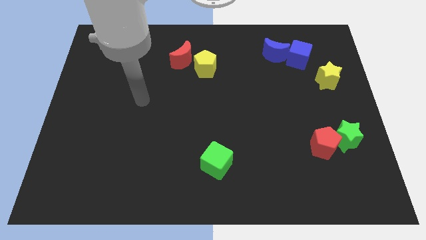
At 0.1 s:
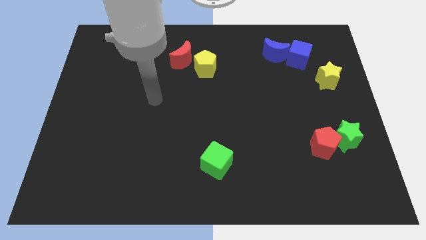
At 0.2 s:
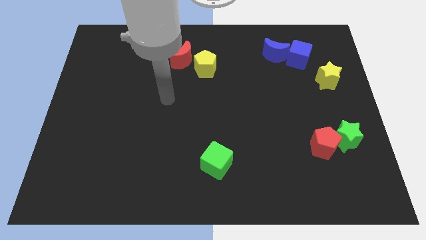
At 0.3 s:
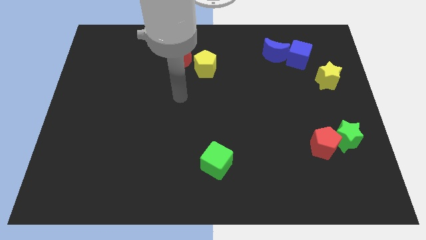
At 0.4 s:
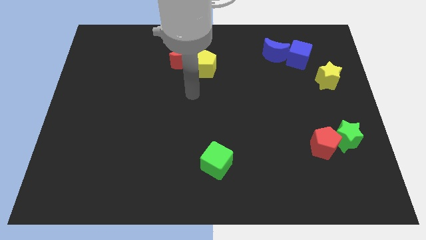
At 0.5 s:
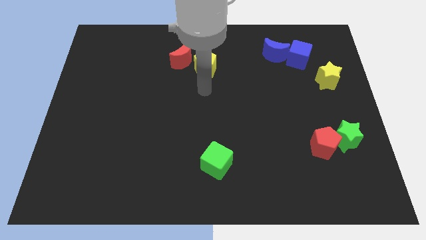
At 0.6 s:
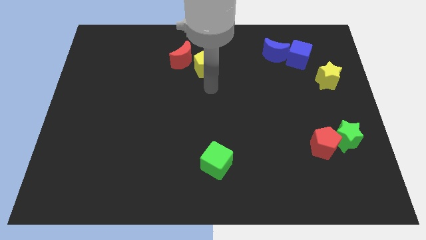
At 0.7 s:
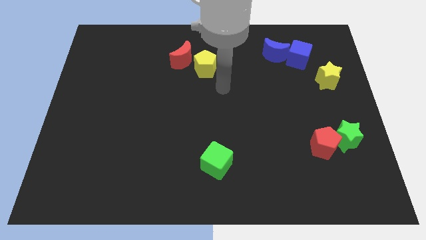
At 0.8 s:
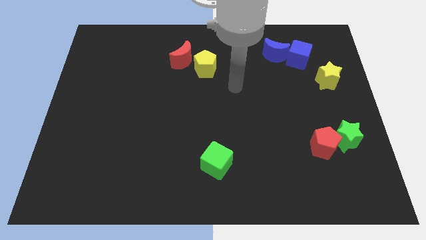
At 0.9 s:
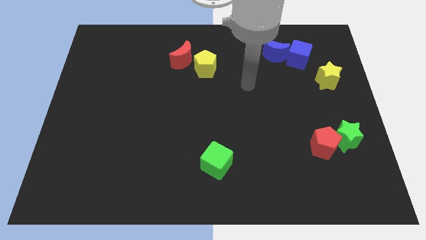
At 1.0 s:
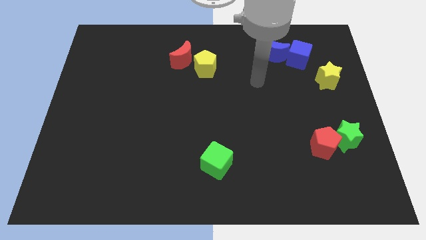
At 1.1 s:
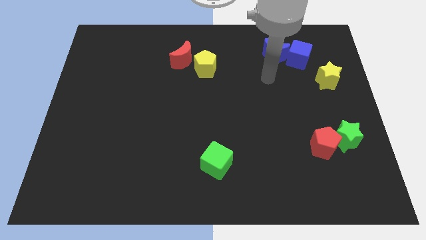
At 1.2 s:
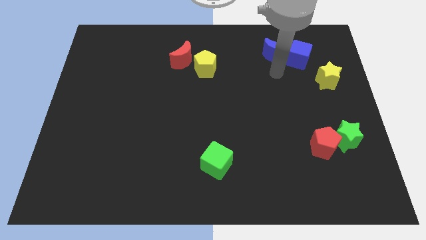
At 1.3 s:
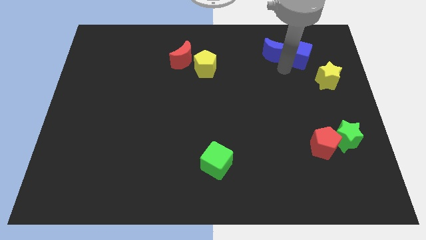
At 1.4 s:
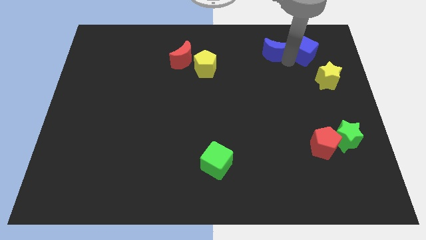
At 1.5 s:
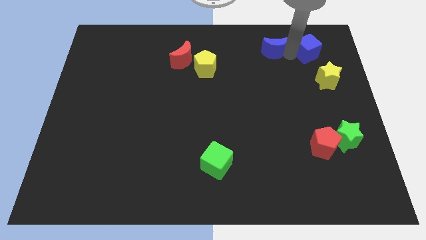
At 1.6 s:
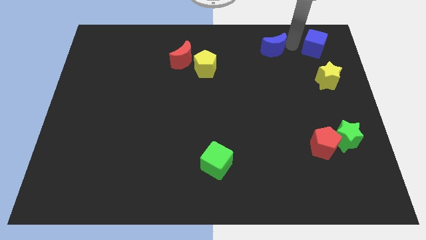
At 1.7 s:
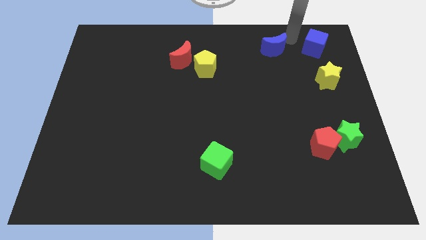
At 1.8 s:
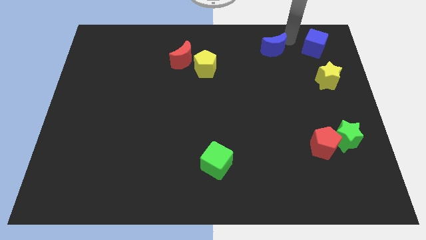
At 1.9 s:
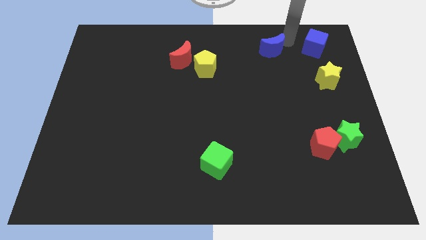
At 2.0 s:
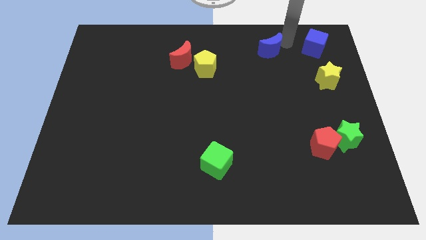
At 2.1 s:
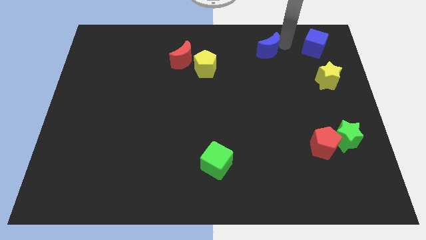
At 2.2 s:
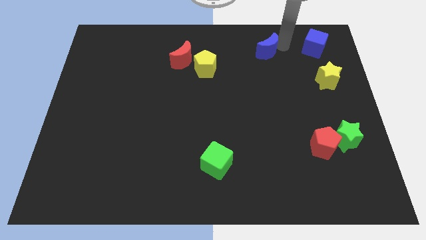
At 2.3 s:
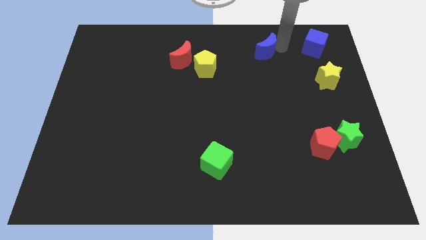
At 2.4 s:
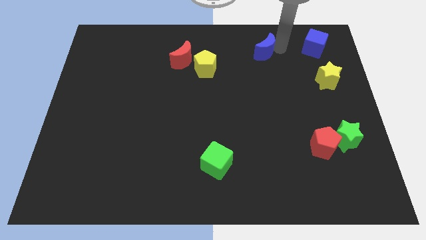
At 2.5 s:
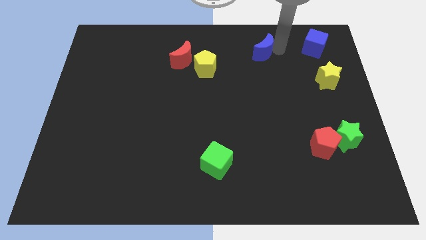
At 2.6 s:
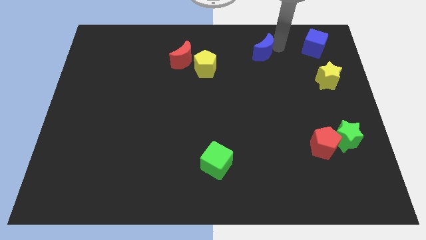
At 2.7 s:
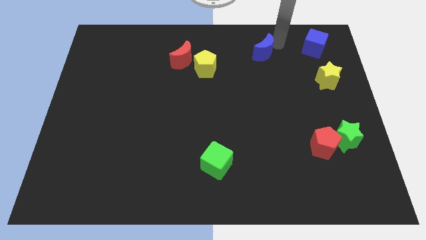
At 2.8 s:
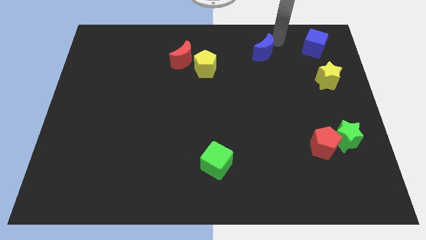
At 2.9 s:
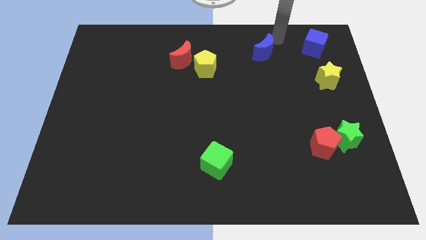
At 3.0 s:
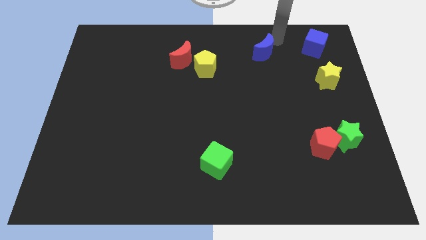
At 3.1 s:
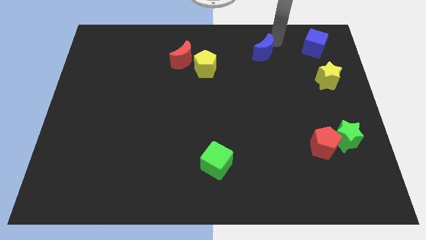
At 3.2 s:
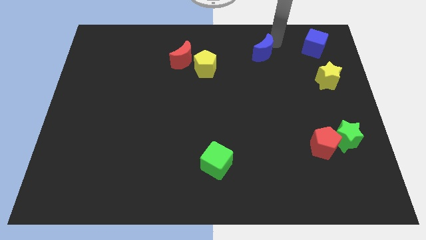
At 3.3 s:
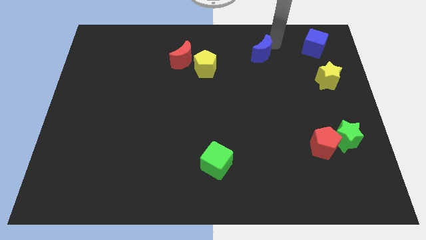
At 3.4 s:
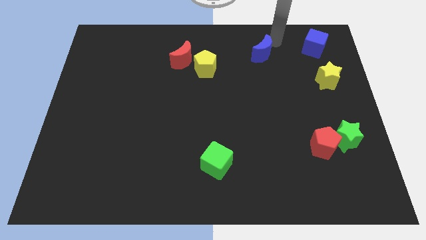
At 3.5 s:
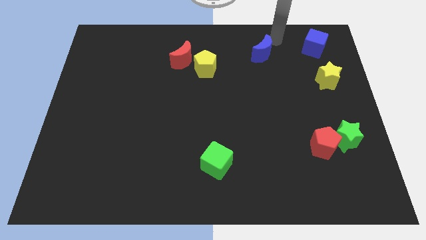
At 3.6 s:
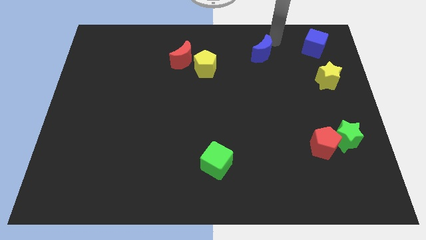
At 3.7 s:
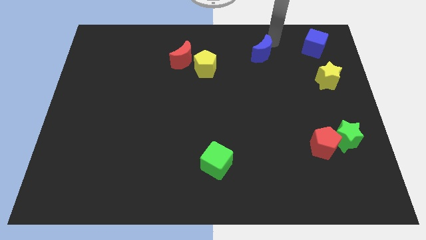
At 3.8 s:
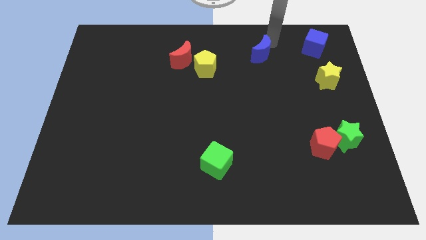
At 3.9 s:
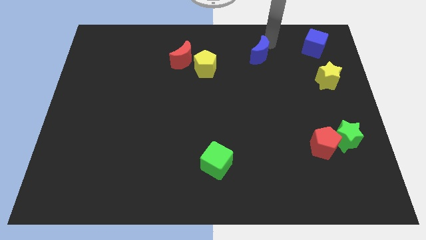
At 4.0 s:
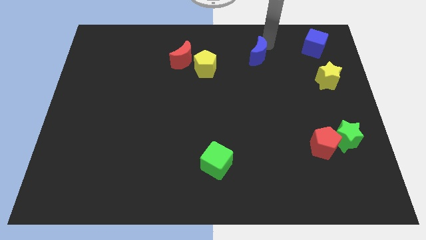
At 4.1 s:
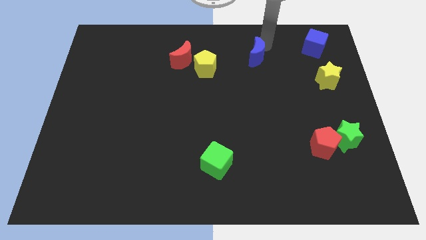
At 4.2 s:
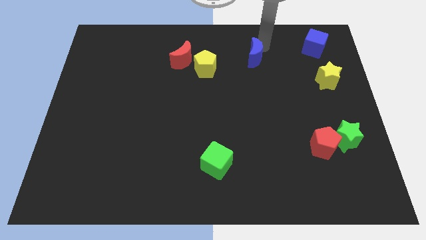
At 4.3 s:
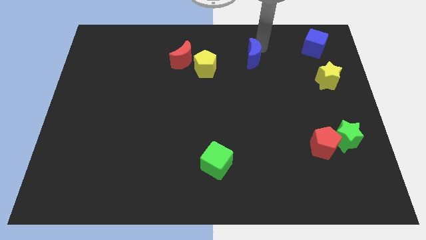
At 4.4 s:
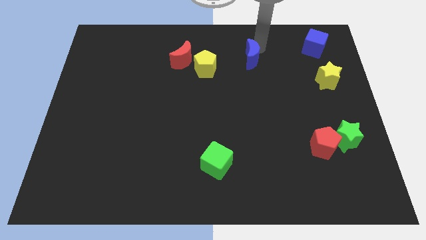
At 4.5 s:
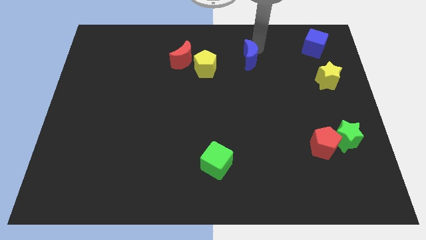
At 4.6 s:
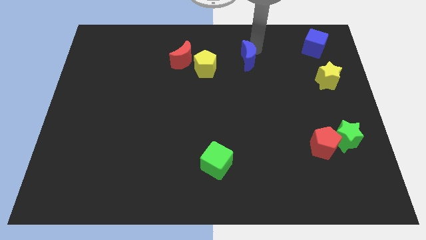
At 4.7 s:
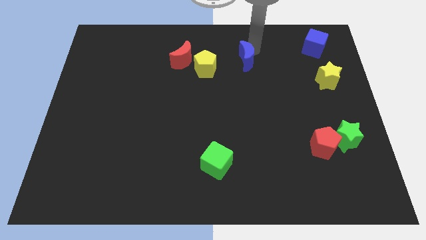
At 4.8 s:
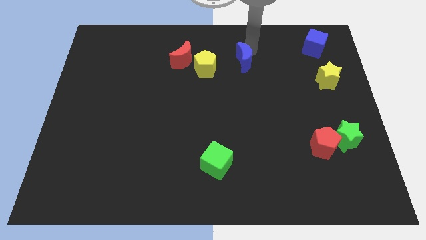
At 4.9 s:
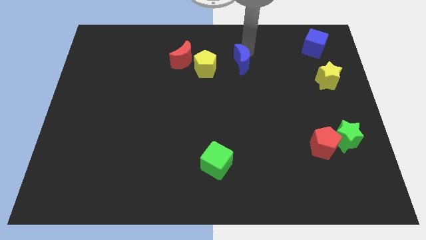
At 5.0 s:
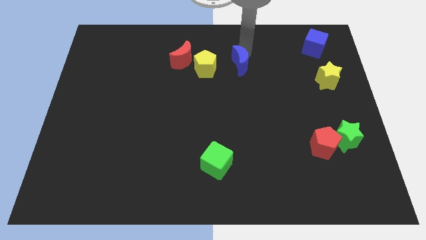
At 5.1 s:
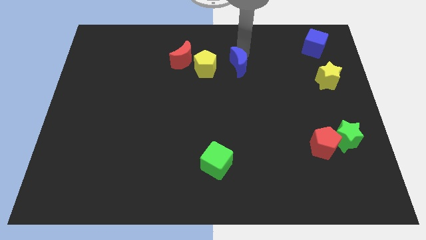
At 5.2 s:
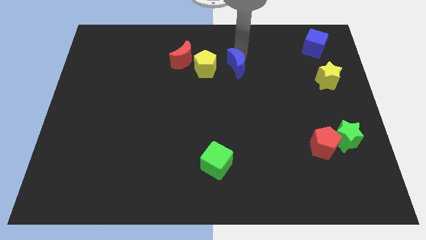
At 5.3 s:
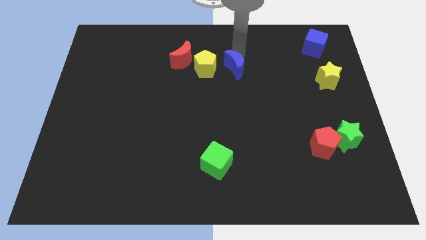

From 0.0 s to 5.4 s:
slide the blue moon to the center of the board

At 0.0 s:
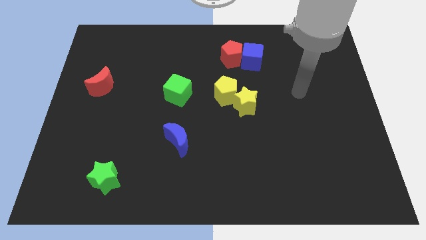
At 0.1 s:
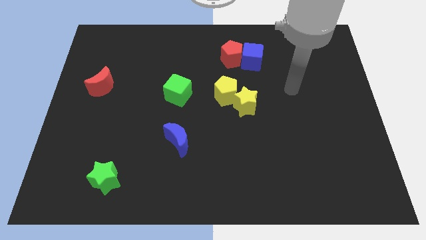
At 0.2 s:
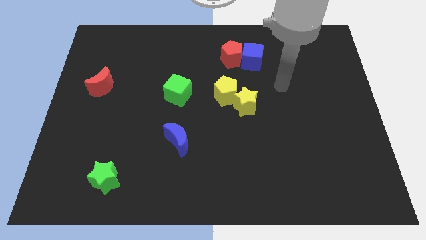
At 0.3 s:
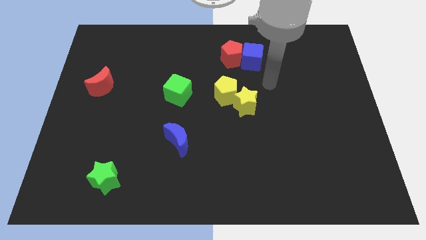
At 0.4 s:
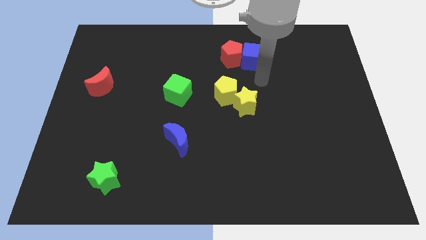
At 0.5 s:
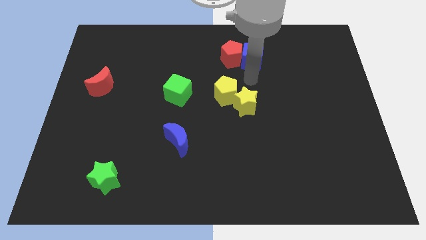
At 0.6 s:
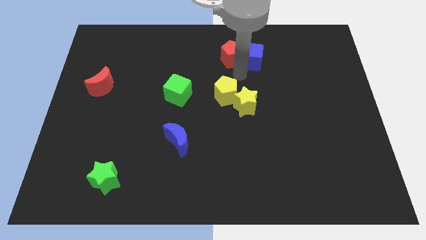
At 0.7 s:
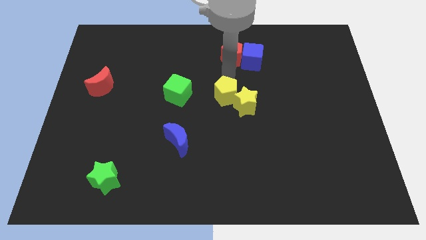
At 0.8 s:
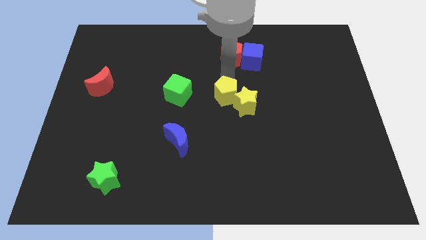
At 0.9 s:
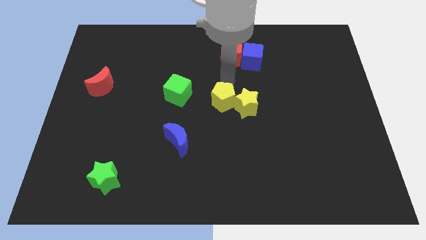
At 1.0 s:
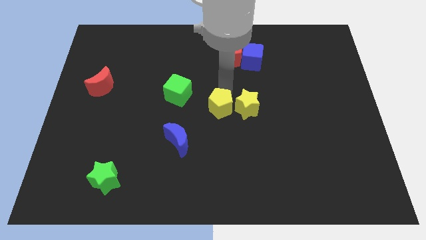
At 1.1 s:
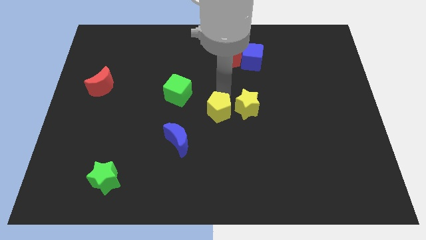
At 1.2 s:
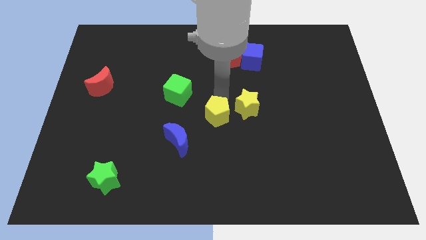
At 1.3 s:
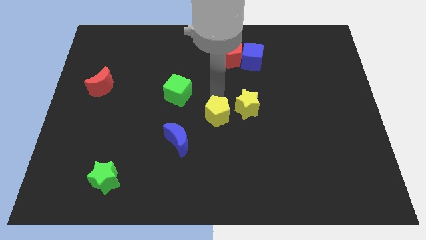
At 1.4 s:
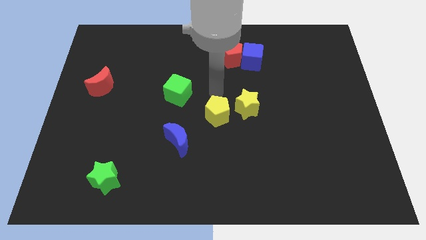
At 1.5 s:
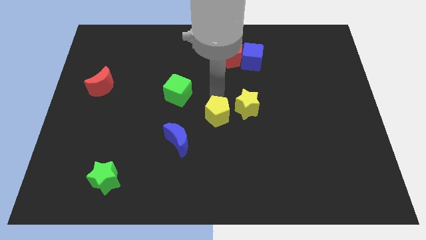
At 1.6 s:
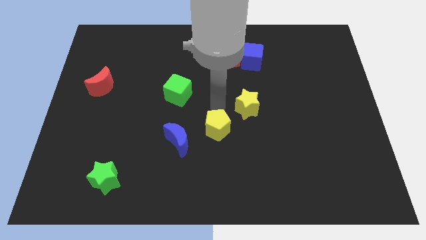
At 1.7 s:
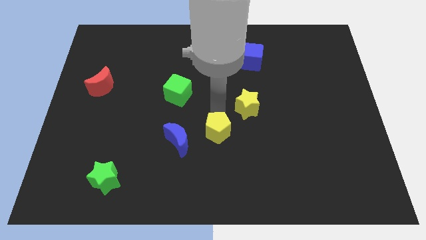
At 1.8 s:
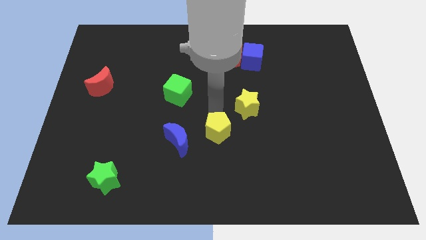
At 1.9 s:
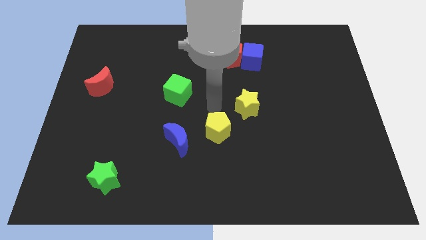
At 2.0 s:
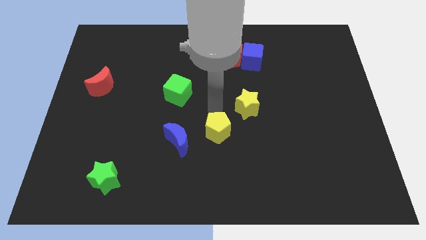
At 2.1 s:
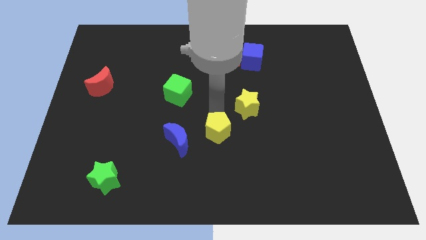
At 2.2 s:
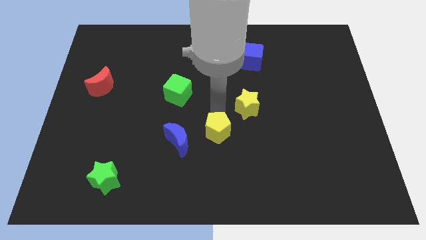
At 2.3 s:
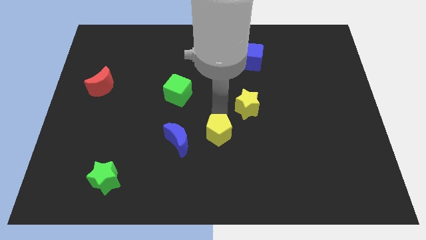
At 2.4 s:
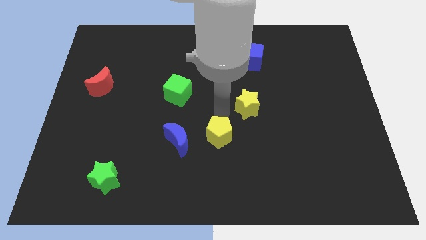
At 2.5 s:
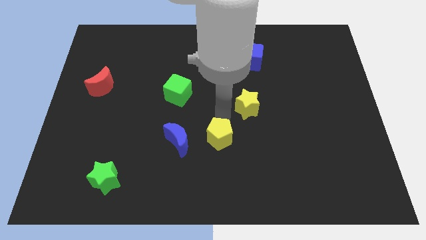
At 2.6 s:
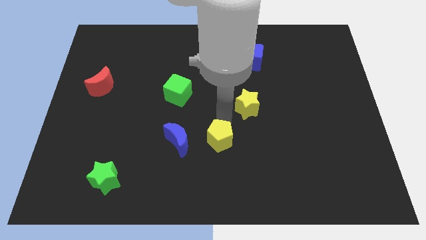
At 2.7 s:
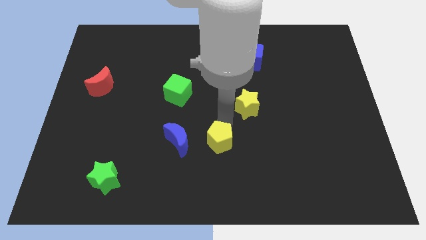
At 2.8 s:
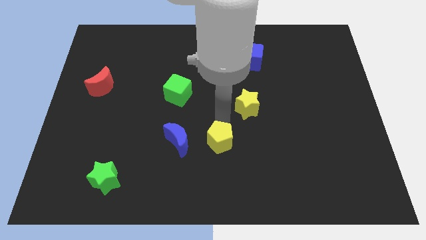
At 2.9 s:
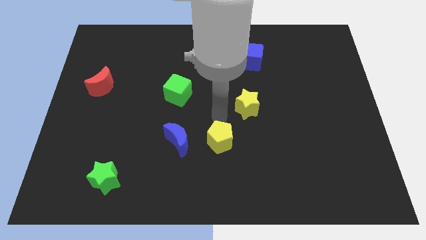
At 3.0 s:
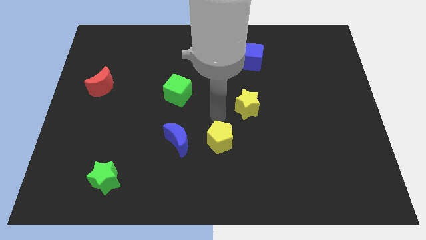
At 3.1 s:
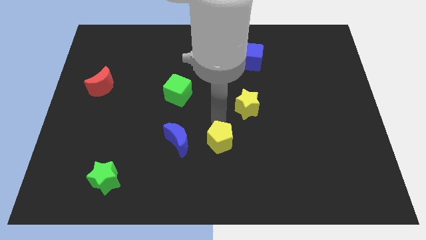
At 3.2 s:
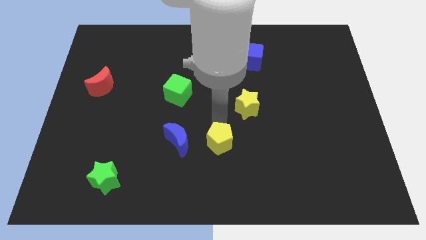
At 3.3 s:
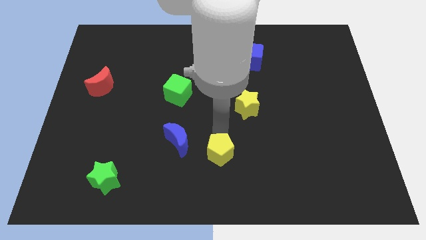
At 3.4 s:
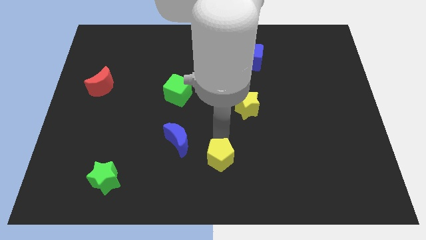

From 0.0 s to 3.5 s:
push the yellow pentagon to the bottom
